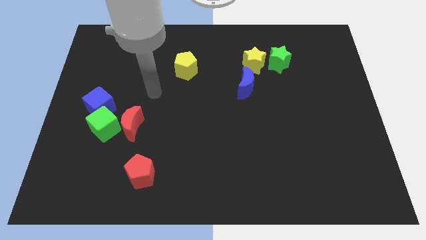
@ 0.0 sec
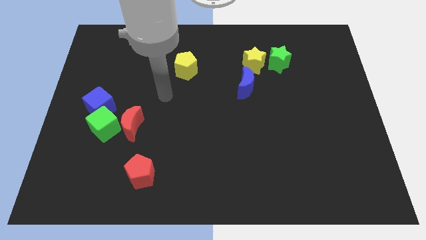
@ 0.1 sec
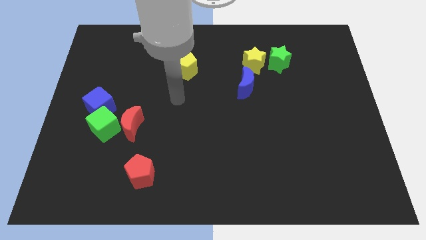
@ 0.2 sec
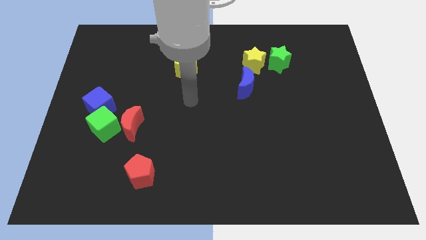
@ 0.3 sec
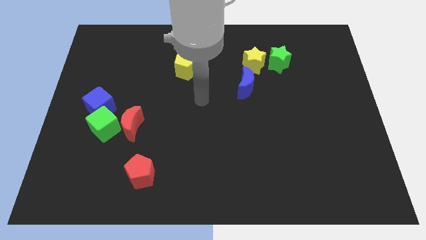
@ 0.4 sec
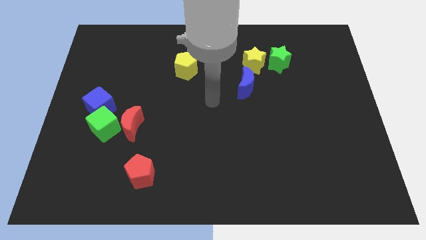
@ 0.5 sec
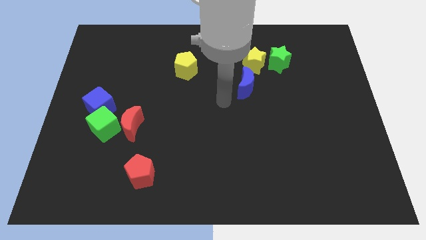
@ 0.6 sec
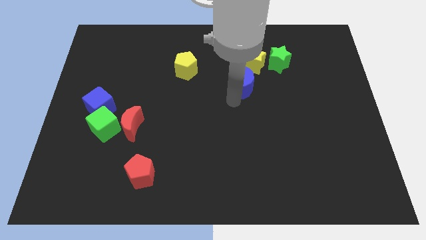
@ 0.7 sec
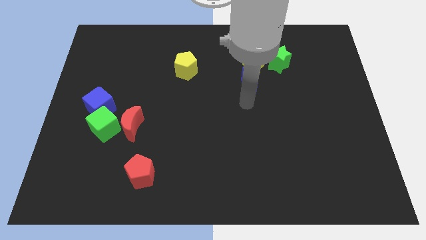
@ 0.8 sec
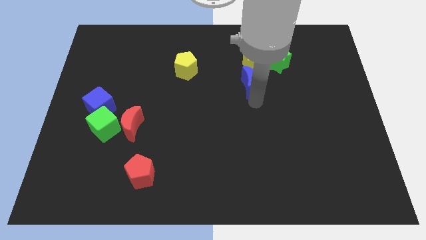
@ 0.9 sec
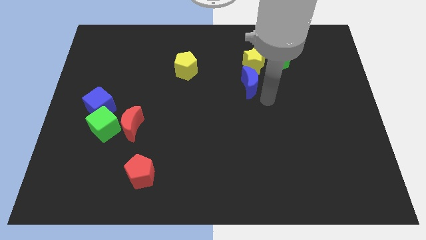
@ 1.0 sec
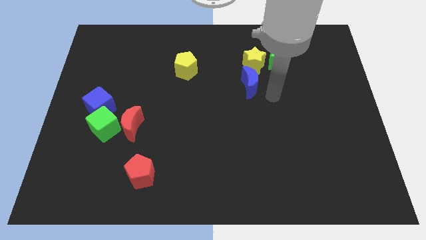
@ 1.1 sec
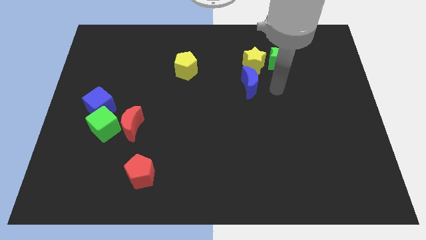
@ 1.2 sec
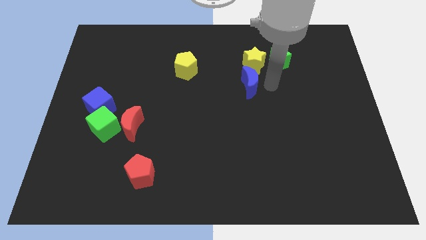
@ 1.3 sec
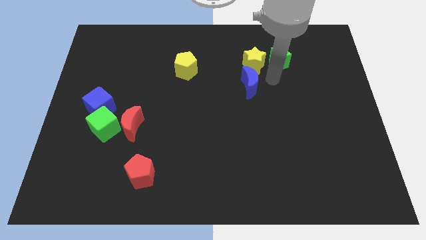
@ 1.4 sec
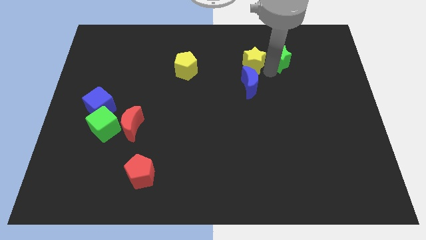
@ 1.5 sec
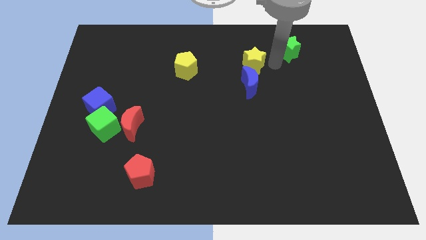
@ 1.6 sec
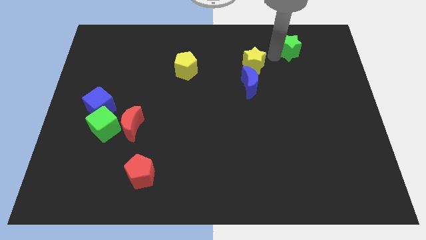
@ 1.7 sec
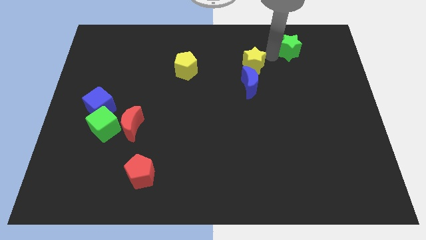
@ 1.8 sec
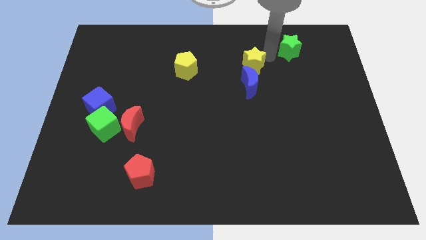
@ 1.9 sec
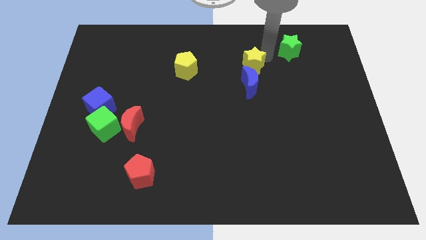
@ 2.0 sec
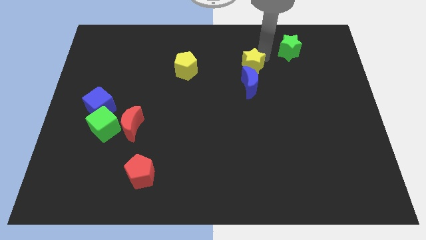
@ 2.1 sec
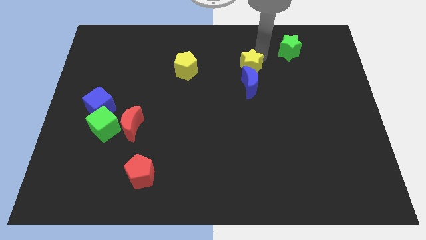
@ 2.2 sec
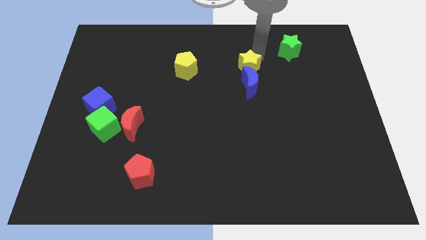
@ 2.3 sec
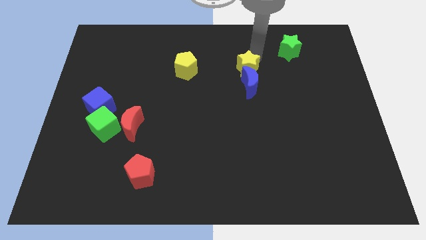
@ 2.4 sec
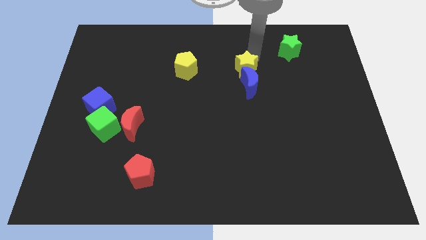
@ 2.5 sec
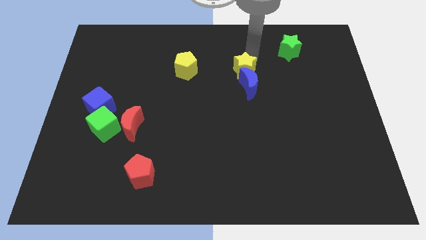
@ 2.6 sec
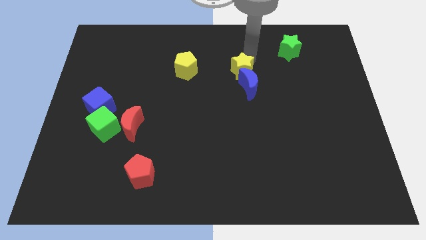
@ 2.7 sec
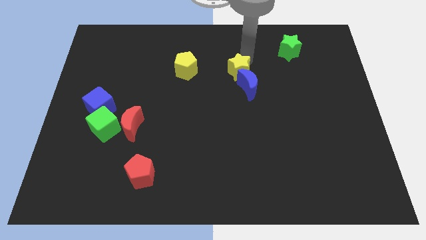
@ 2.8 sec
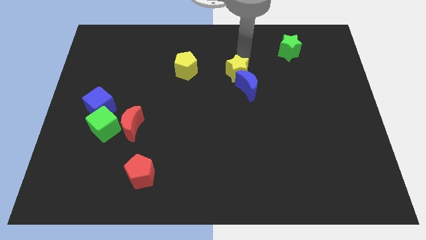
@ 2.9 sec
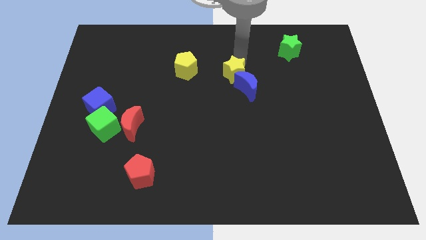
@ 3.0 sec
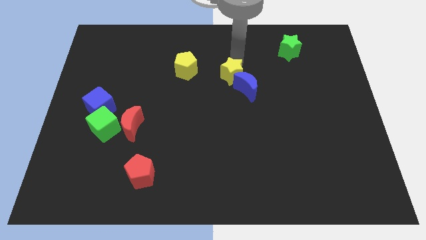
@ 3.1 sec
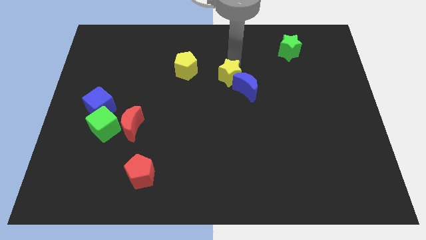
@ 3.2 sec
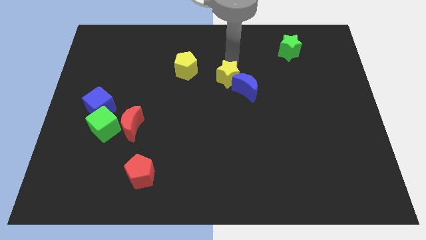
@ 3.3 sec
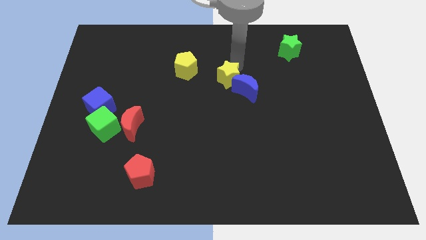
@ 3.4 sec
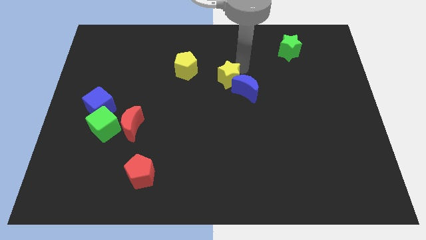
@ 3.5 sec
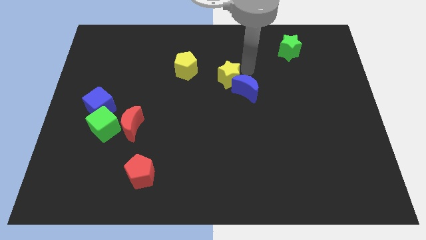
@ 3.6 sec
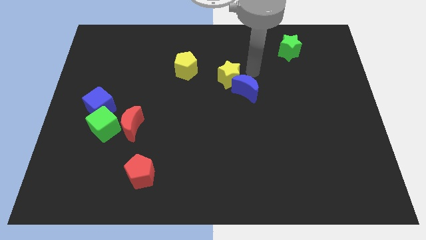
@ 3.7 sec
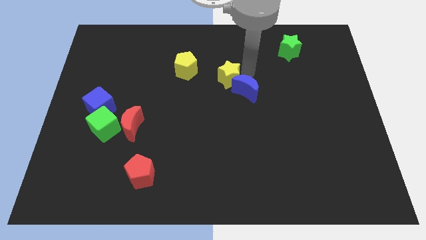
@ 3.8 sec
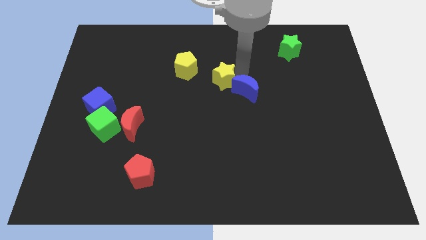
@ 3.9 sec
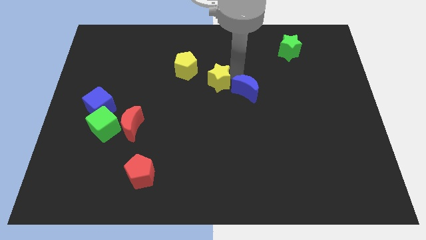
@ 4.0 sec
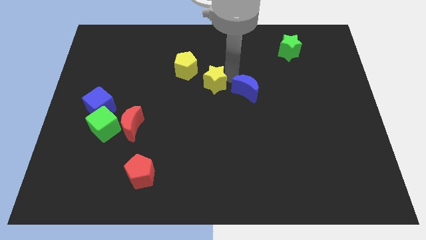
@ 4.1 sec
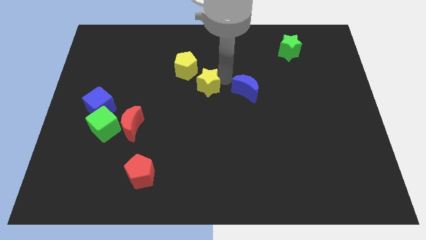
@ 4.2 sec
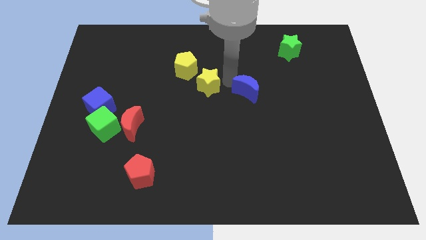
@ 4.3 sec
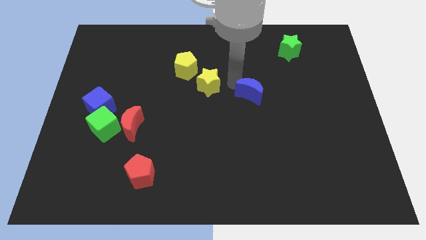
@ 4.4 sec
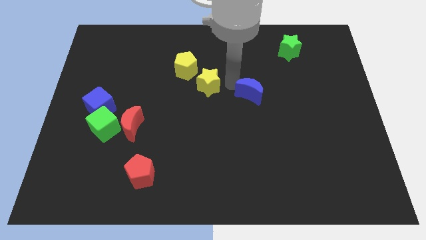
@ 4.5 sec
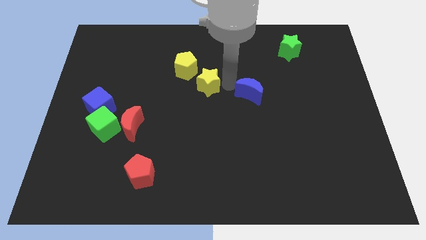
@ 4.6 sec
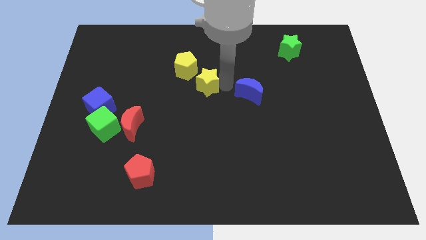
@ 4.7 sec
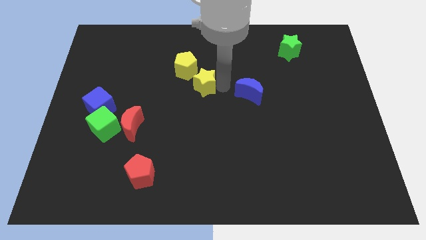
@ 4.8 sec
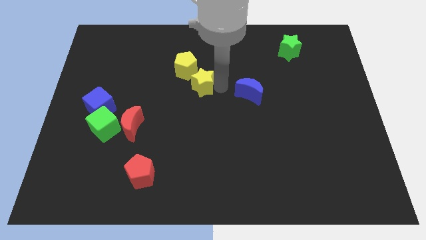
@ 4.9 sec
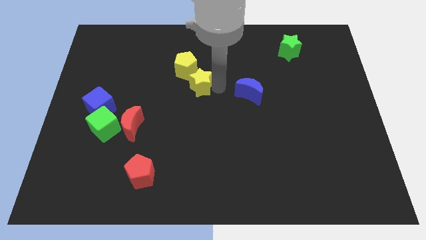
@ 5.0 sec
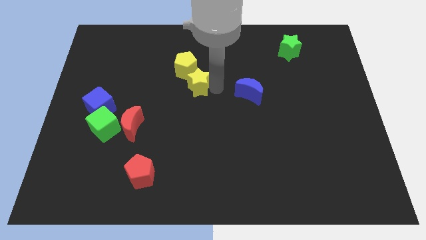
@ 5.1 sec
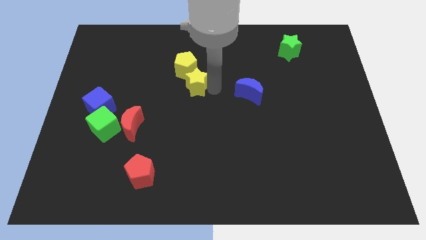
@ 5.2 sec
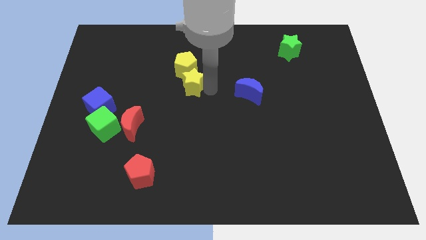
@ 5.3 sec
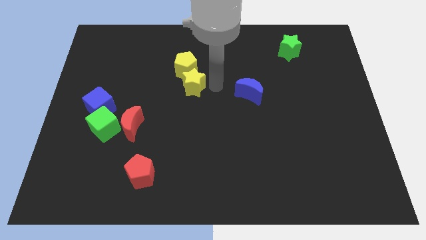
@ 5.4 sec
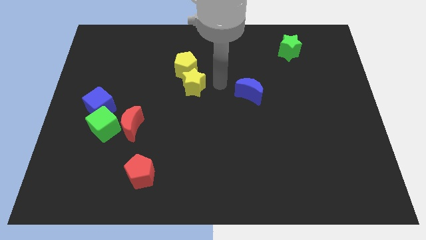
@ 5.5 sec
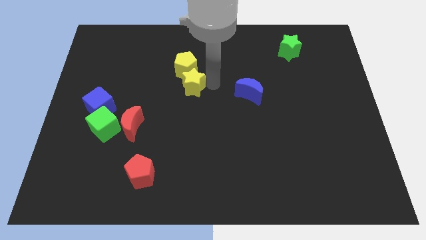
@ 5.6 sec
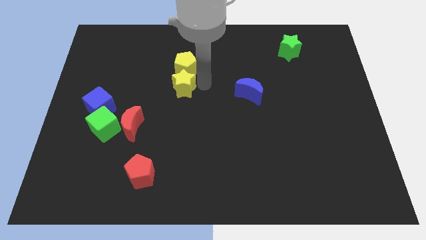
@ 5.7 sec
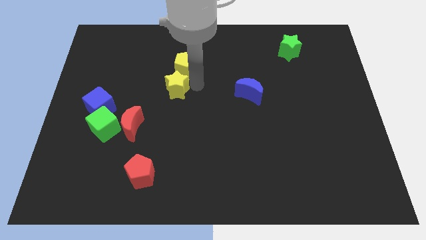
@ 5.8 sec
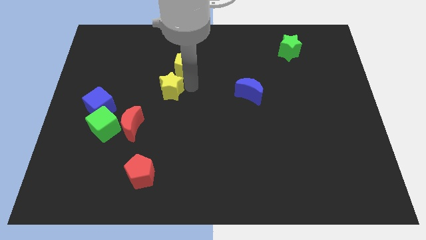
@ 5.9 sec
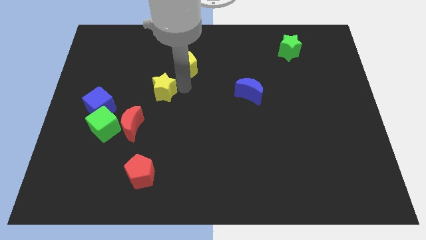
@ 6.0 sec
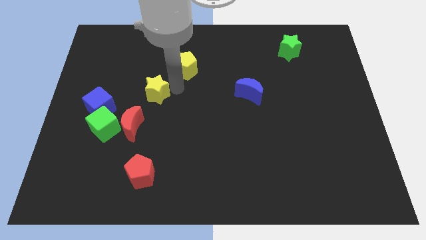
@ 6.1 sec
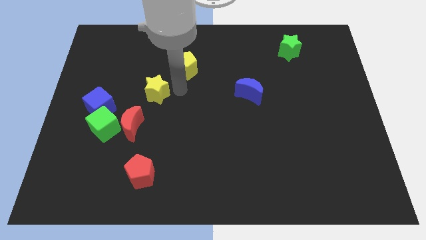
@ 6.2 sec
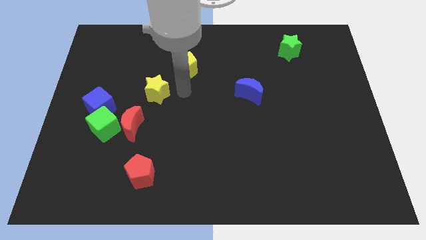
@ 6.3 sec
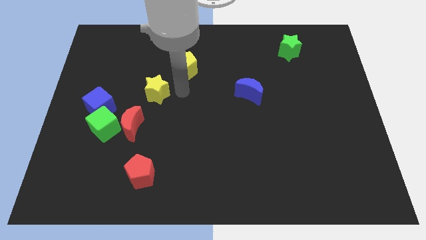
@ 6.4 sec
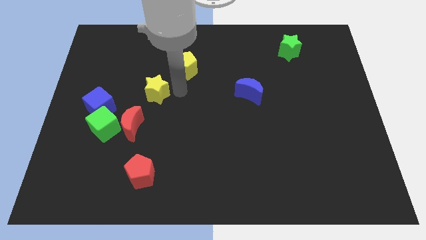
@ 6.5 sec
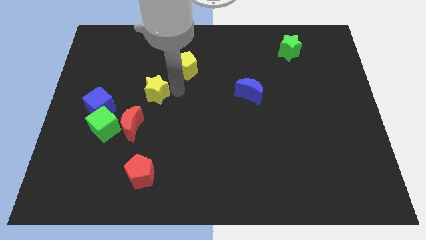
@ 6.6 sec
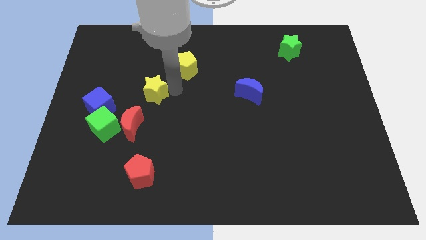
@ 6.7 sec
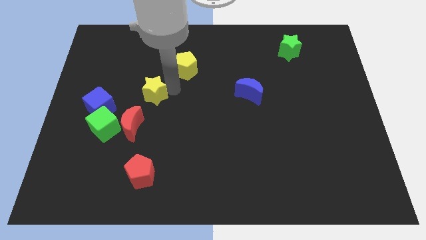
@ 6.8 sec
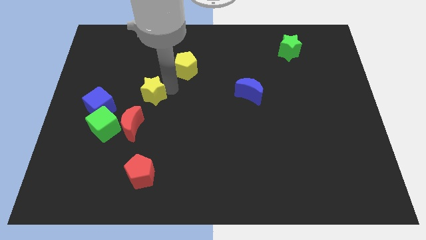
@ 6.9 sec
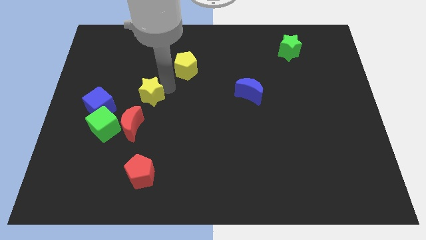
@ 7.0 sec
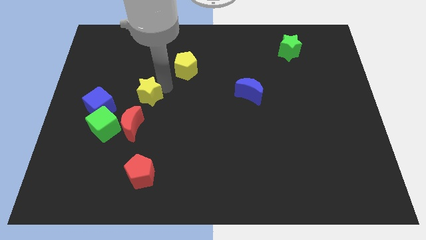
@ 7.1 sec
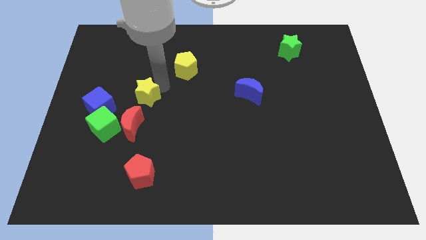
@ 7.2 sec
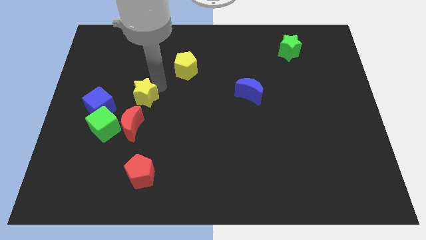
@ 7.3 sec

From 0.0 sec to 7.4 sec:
move the yellow star to the top right of the blue cube
